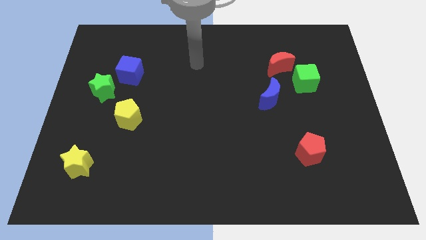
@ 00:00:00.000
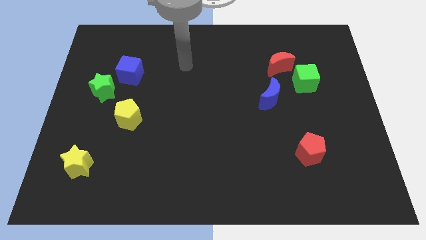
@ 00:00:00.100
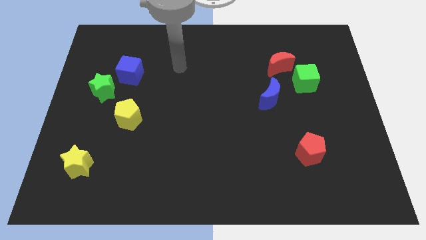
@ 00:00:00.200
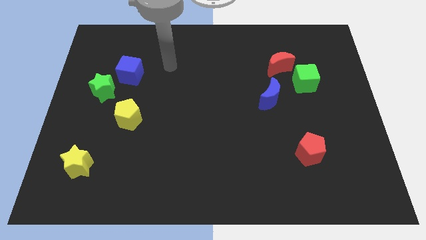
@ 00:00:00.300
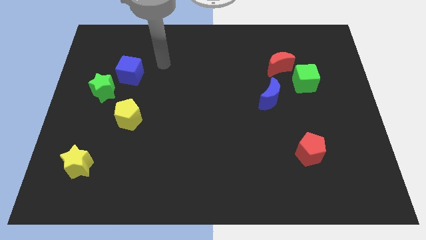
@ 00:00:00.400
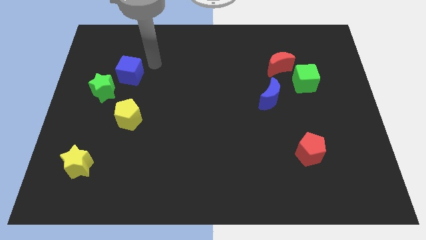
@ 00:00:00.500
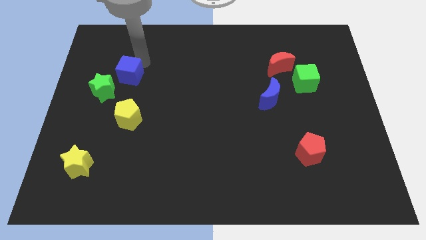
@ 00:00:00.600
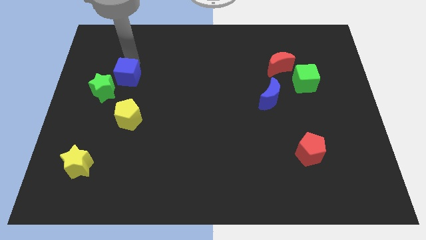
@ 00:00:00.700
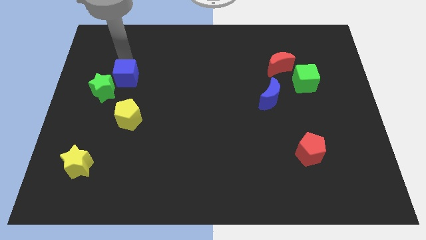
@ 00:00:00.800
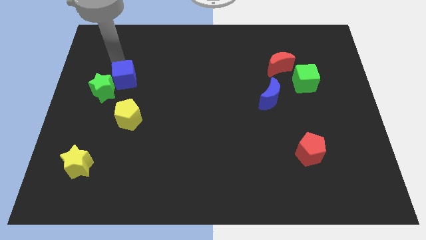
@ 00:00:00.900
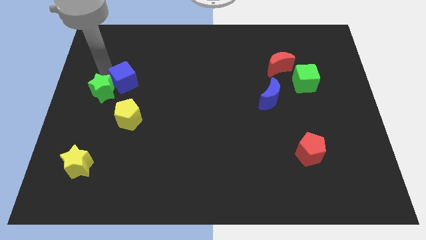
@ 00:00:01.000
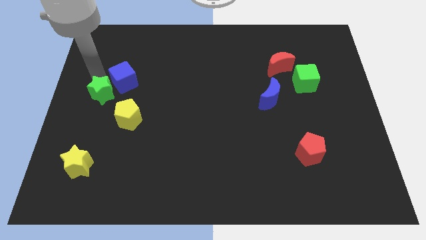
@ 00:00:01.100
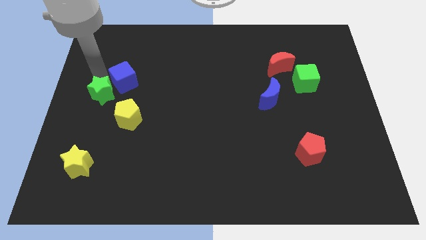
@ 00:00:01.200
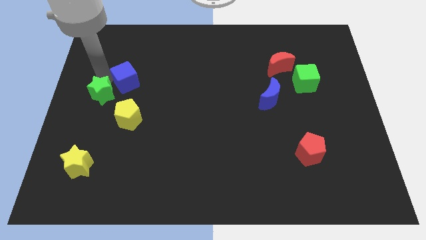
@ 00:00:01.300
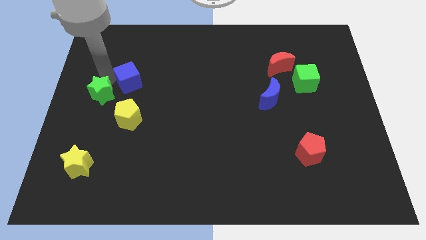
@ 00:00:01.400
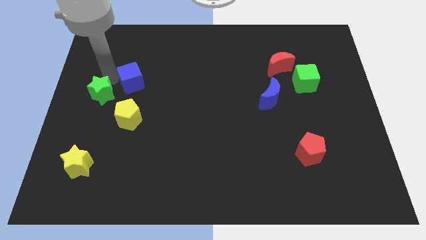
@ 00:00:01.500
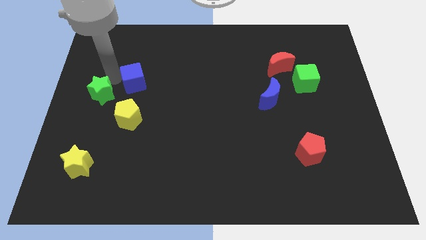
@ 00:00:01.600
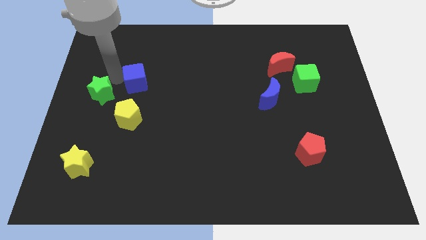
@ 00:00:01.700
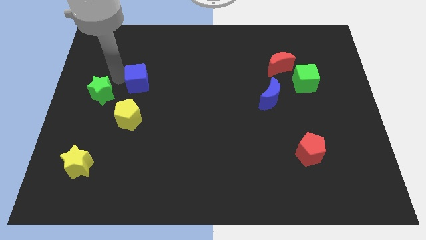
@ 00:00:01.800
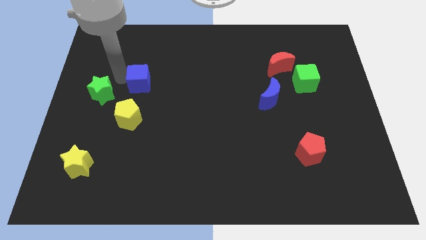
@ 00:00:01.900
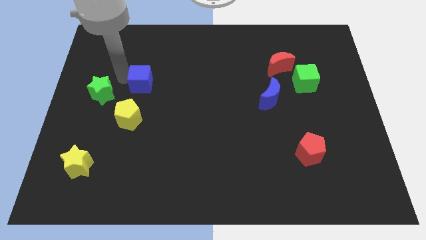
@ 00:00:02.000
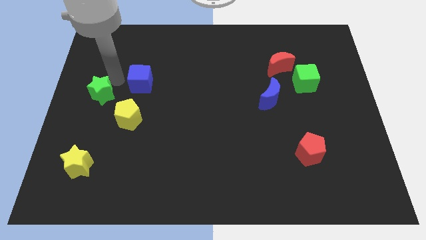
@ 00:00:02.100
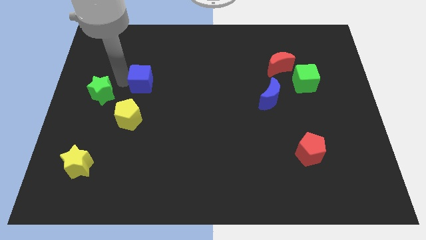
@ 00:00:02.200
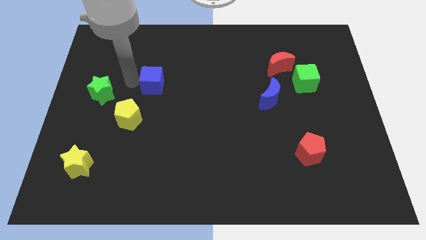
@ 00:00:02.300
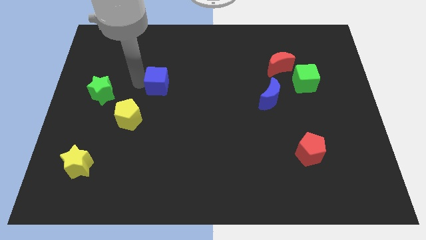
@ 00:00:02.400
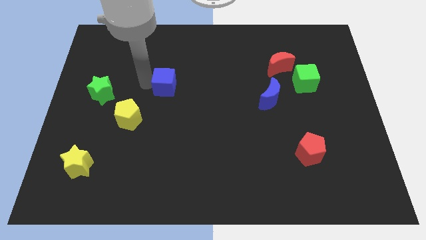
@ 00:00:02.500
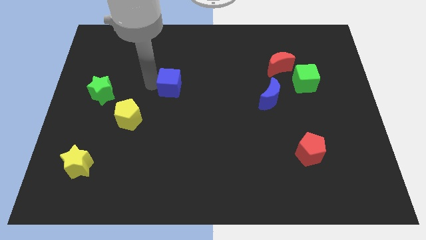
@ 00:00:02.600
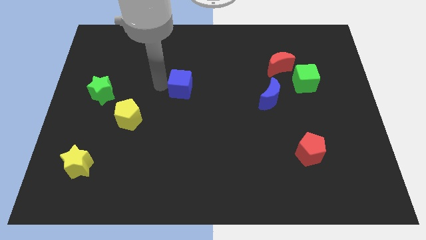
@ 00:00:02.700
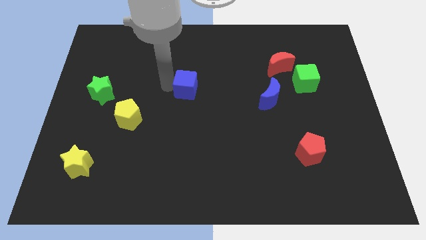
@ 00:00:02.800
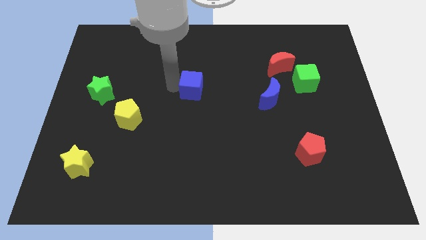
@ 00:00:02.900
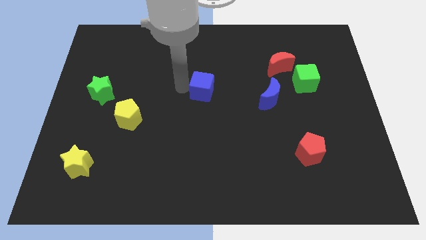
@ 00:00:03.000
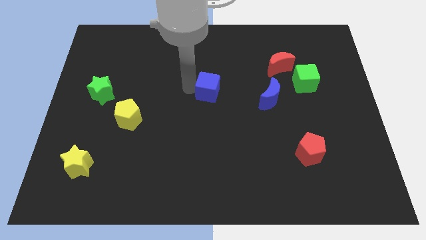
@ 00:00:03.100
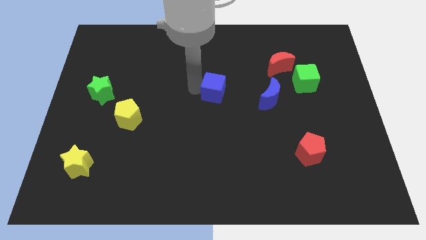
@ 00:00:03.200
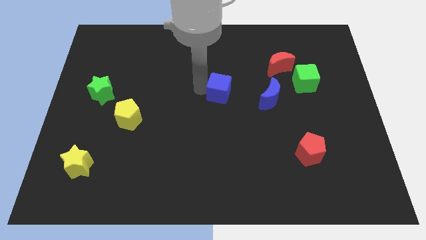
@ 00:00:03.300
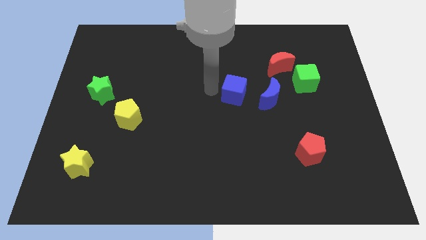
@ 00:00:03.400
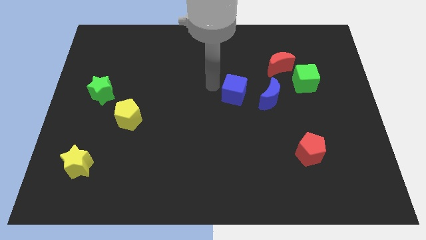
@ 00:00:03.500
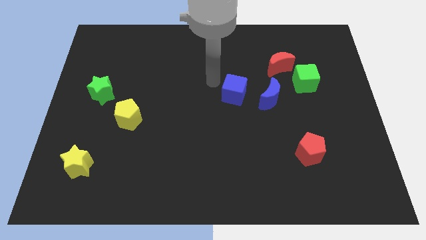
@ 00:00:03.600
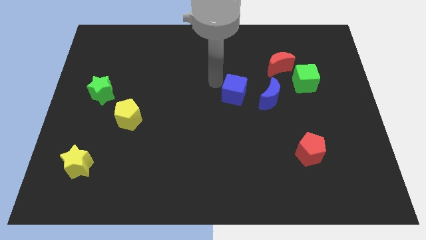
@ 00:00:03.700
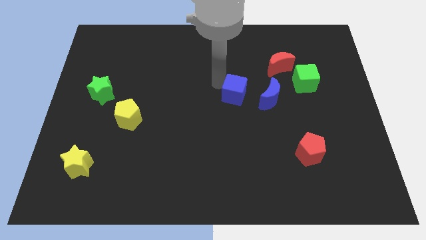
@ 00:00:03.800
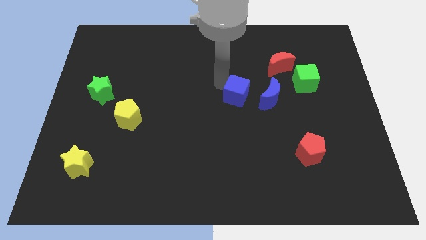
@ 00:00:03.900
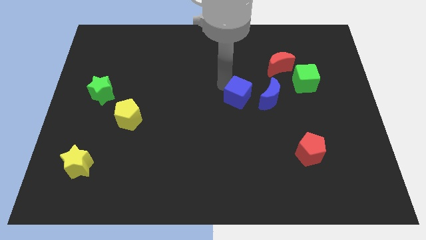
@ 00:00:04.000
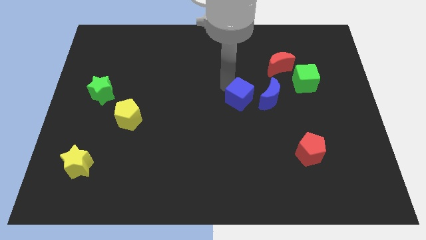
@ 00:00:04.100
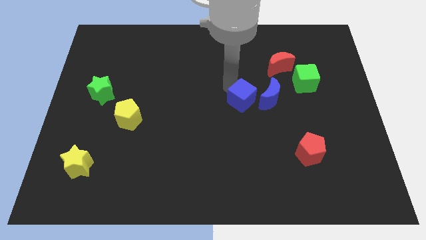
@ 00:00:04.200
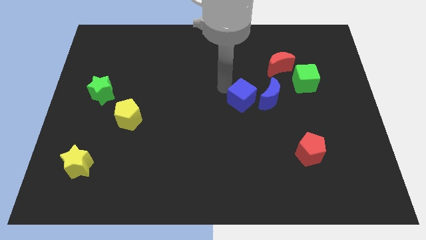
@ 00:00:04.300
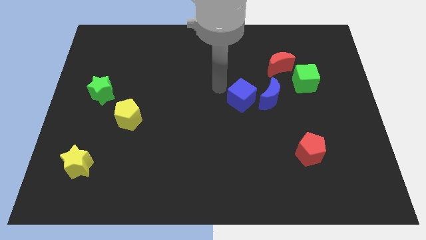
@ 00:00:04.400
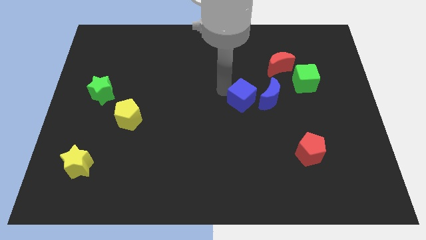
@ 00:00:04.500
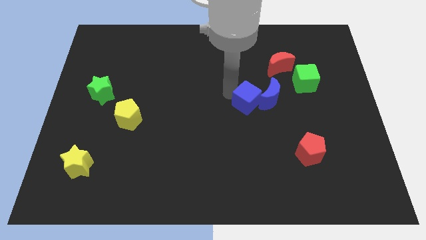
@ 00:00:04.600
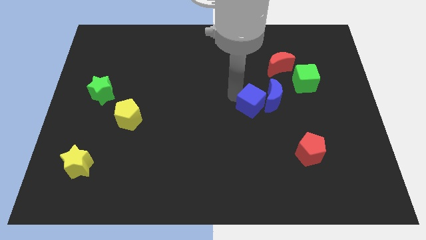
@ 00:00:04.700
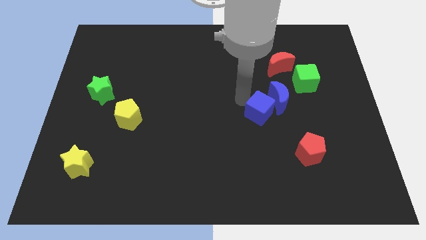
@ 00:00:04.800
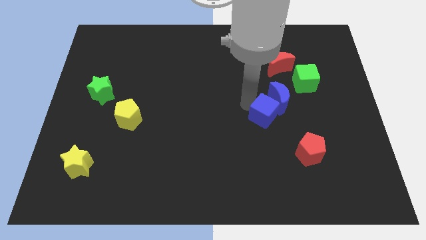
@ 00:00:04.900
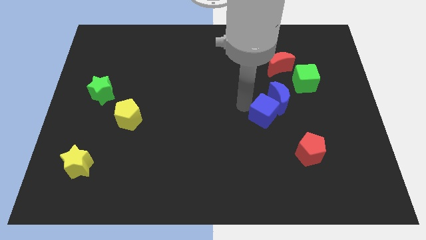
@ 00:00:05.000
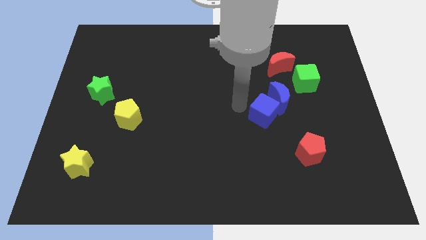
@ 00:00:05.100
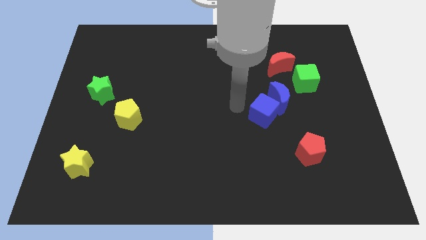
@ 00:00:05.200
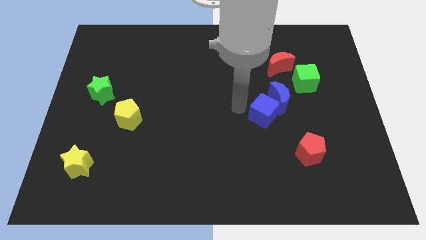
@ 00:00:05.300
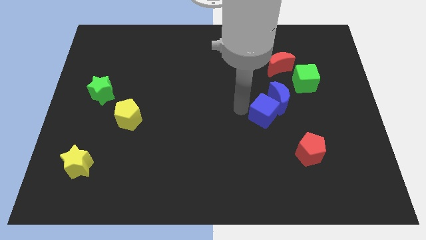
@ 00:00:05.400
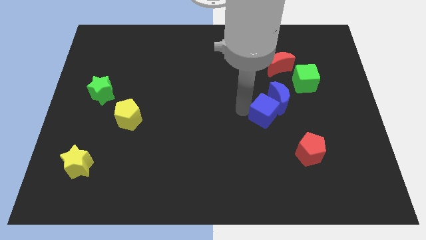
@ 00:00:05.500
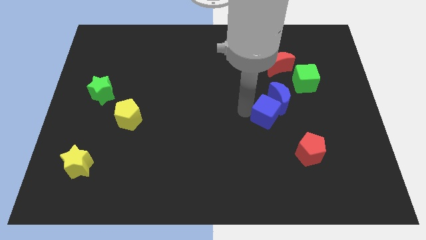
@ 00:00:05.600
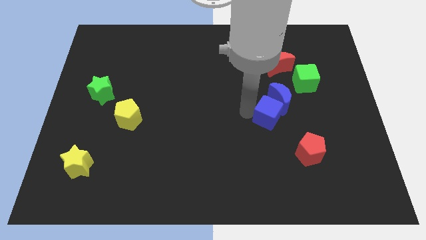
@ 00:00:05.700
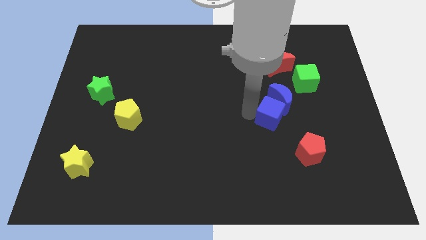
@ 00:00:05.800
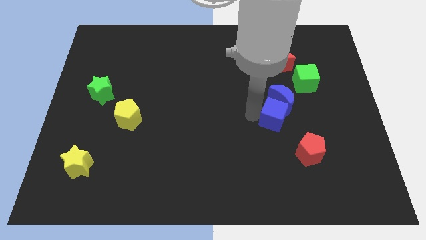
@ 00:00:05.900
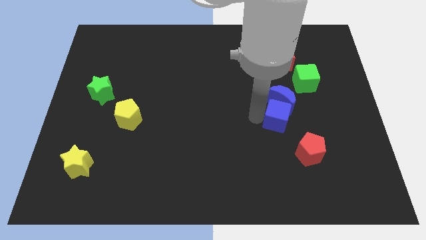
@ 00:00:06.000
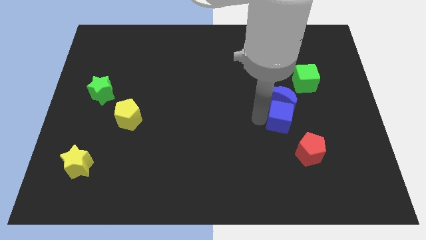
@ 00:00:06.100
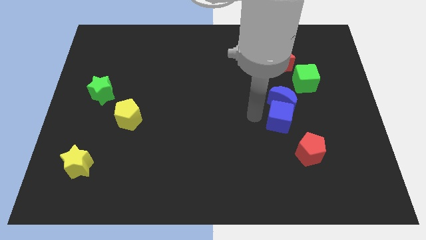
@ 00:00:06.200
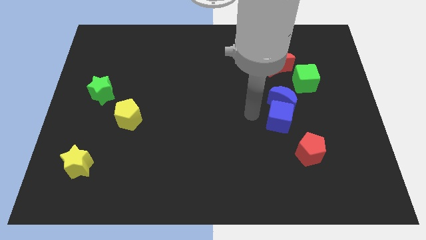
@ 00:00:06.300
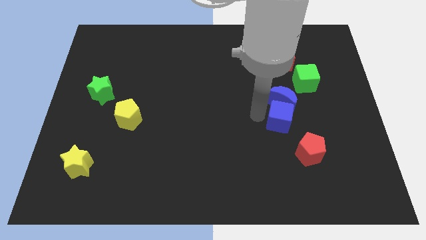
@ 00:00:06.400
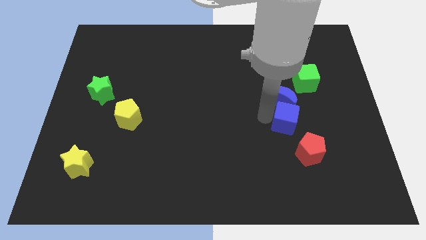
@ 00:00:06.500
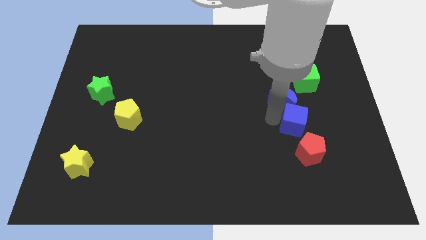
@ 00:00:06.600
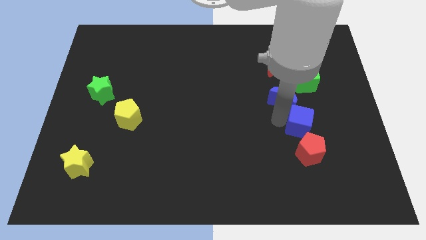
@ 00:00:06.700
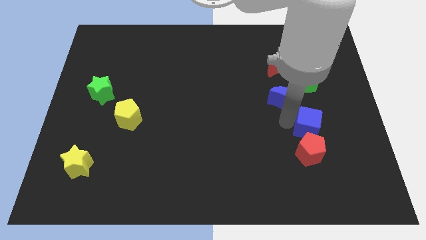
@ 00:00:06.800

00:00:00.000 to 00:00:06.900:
move the blue cube to the top right side of the red pentagon

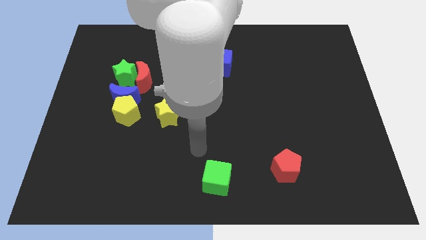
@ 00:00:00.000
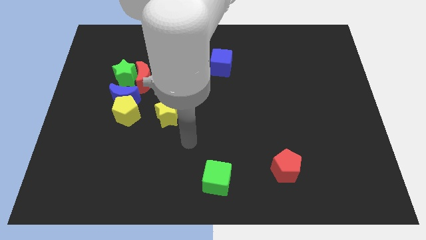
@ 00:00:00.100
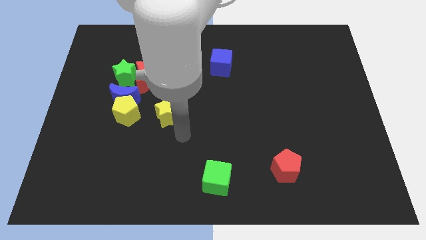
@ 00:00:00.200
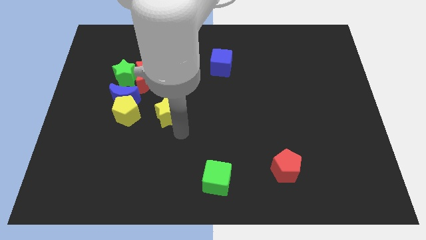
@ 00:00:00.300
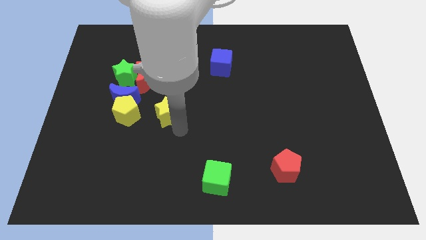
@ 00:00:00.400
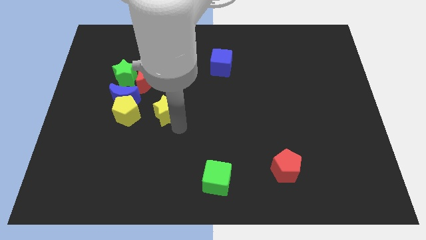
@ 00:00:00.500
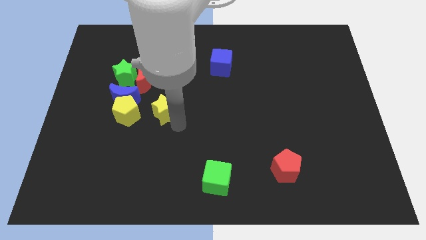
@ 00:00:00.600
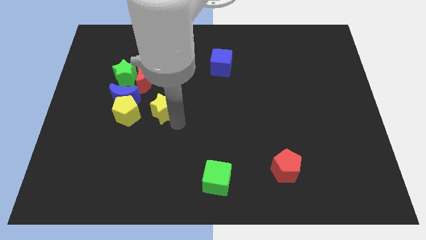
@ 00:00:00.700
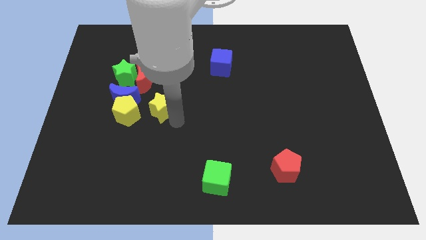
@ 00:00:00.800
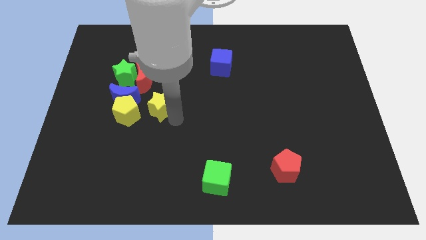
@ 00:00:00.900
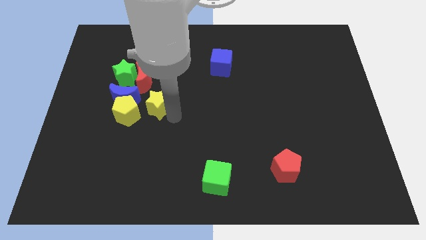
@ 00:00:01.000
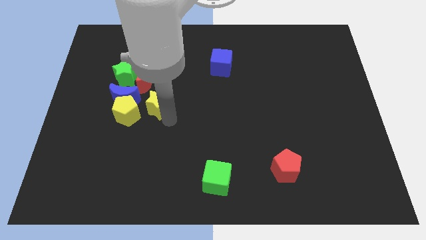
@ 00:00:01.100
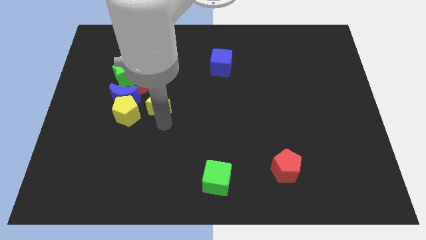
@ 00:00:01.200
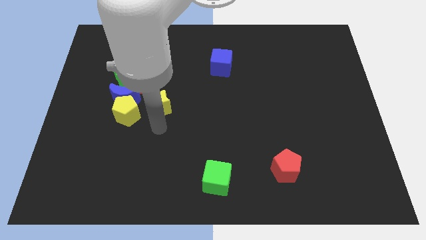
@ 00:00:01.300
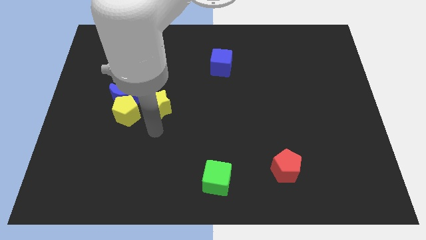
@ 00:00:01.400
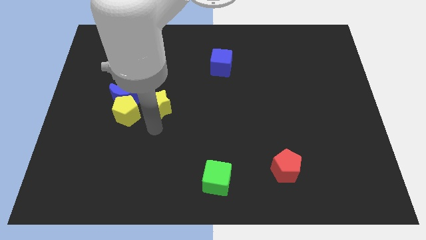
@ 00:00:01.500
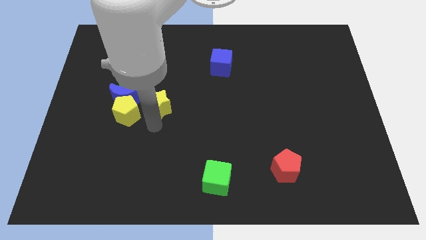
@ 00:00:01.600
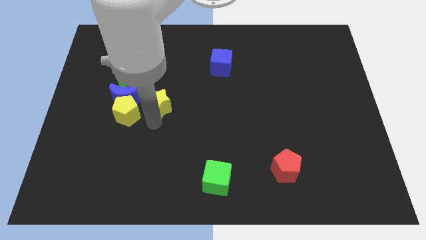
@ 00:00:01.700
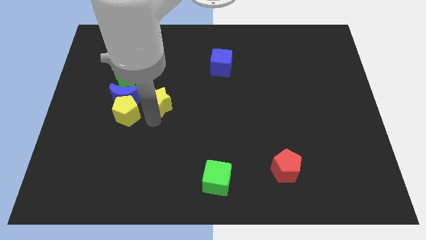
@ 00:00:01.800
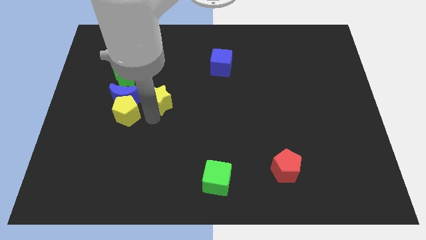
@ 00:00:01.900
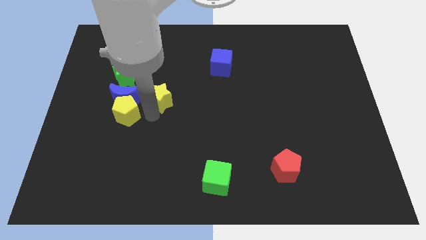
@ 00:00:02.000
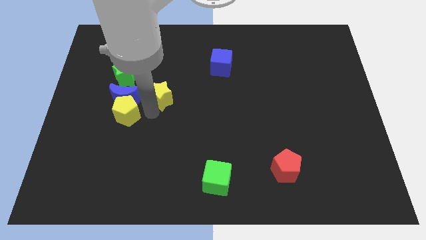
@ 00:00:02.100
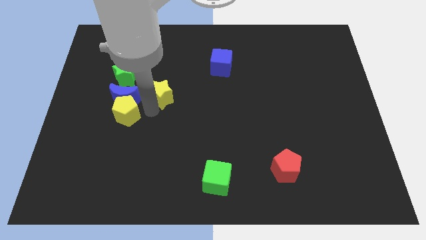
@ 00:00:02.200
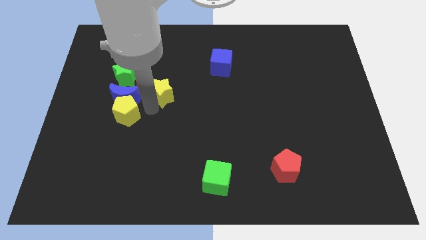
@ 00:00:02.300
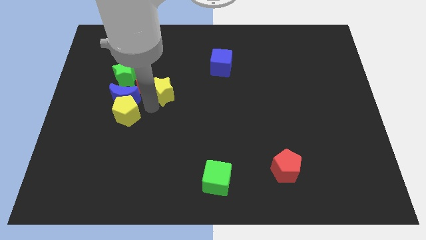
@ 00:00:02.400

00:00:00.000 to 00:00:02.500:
slide the yellow star to the top right side of the blue moon
